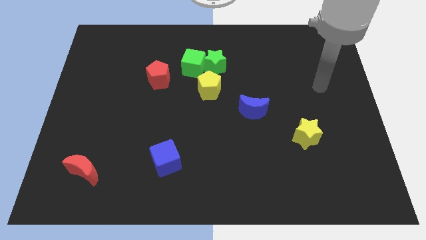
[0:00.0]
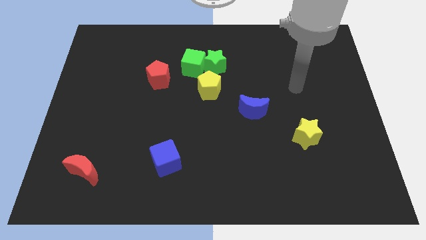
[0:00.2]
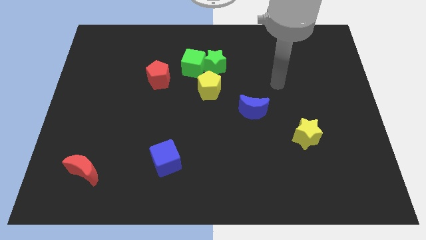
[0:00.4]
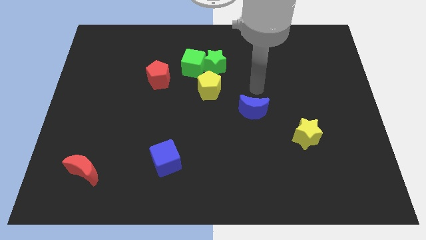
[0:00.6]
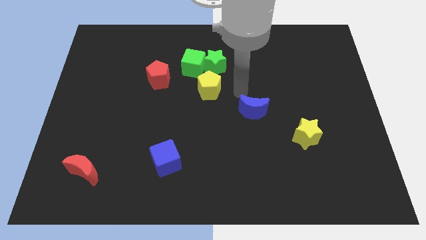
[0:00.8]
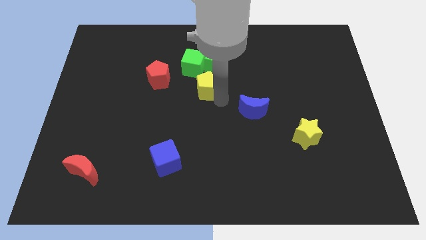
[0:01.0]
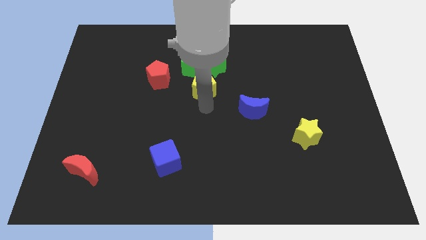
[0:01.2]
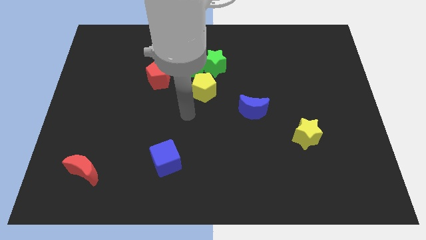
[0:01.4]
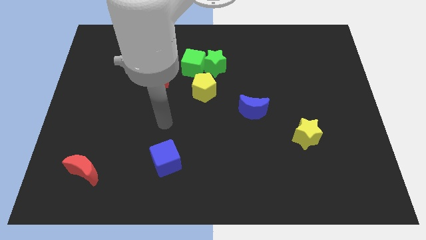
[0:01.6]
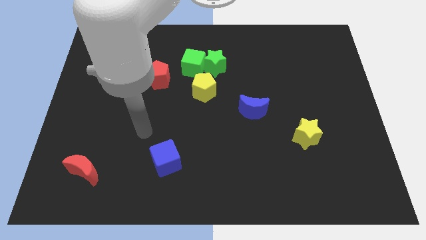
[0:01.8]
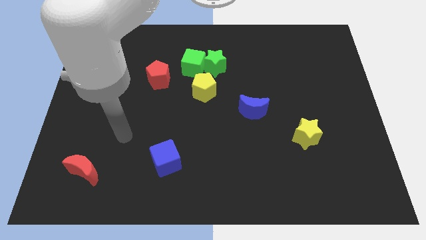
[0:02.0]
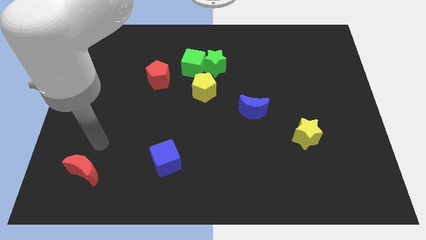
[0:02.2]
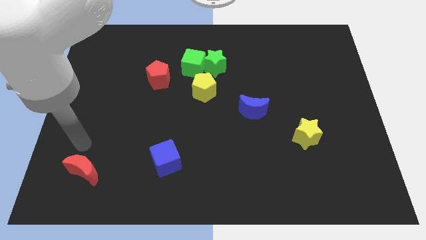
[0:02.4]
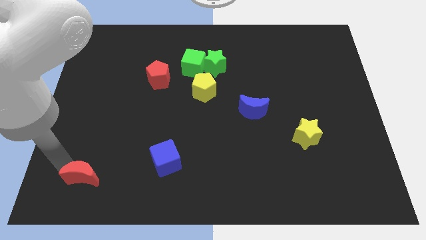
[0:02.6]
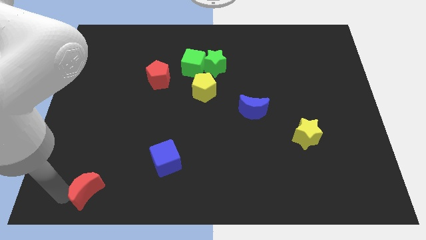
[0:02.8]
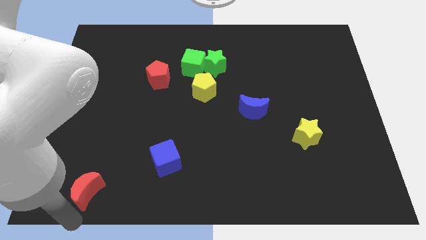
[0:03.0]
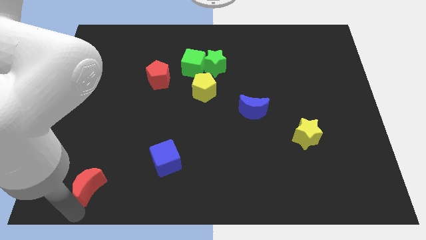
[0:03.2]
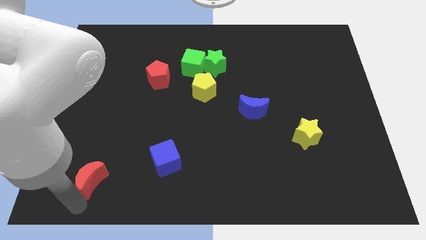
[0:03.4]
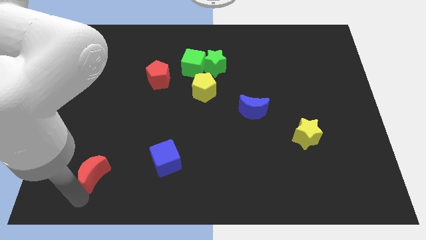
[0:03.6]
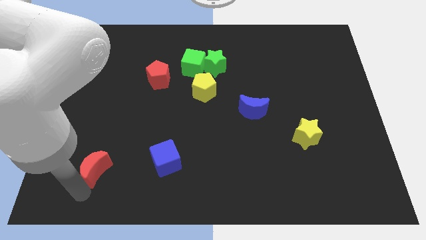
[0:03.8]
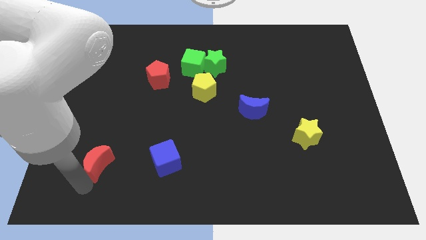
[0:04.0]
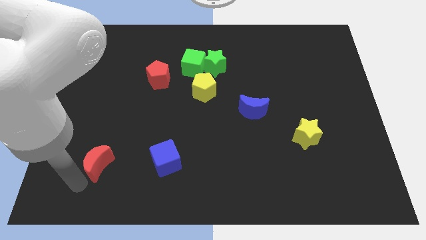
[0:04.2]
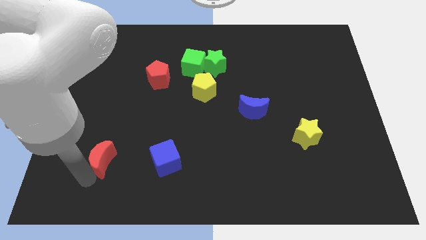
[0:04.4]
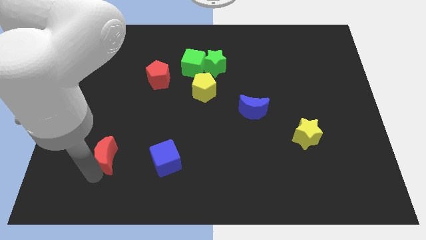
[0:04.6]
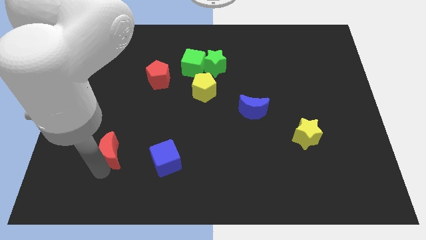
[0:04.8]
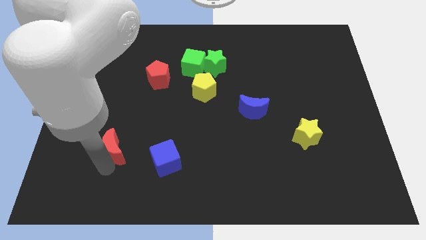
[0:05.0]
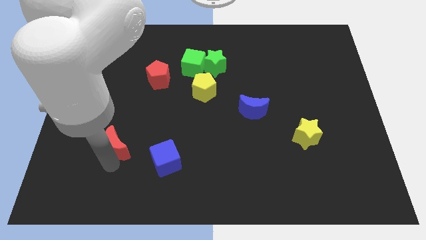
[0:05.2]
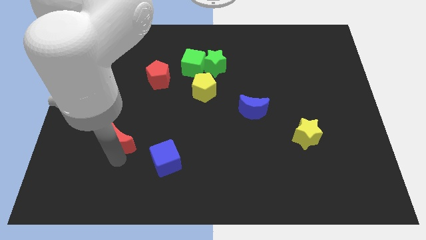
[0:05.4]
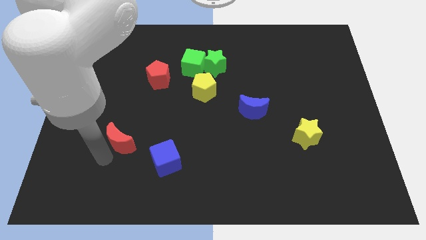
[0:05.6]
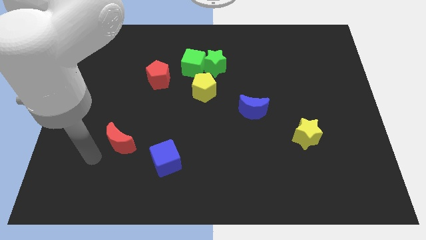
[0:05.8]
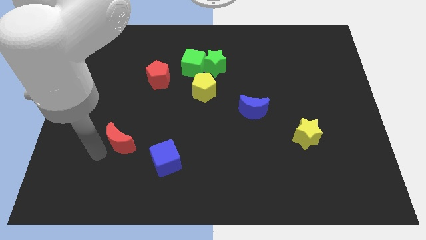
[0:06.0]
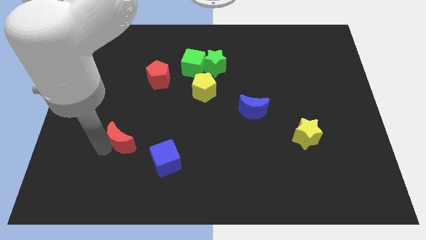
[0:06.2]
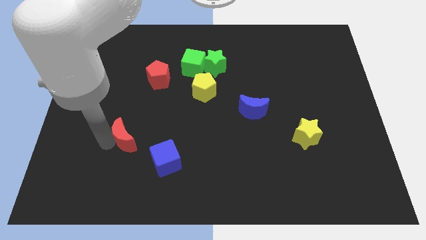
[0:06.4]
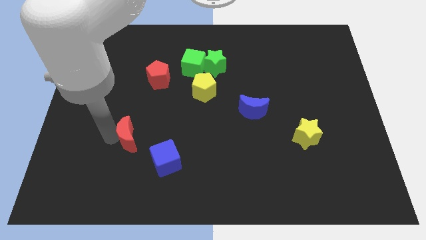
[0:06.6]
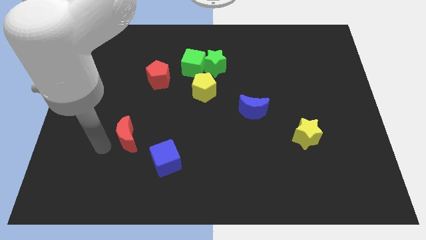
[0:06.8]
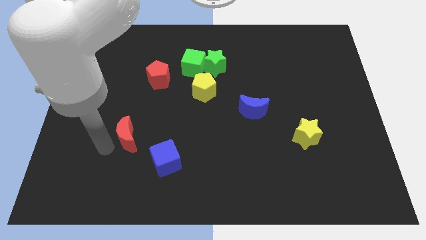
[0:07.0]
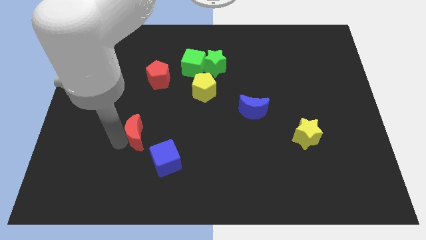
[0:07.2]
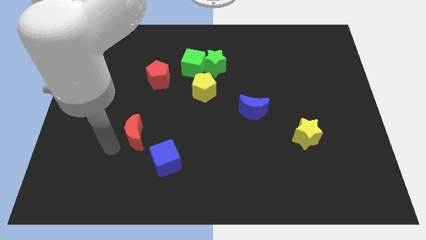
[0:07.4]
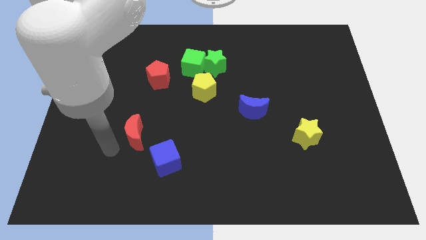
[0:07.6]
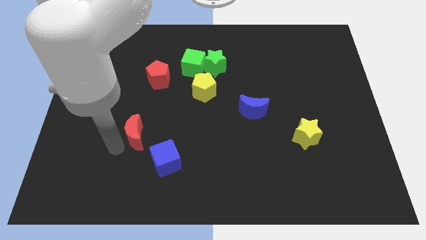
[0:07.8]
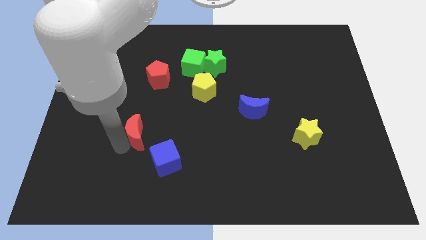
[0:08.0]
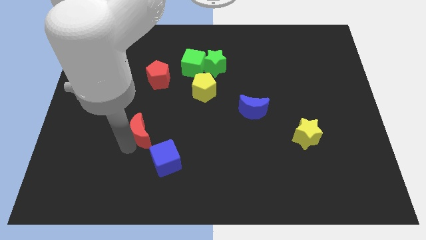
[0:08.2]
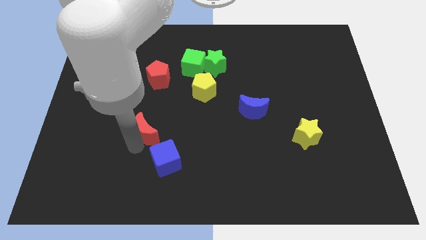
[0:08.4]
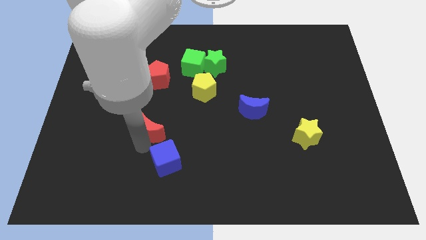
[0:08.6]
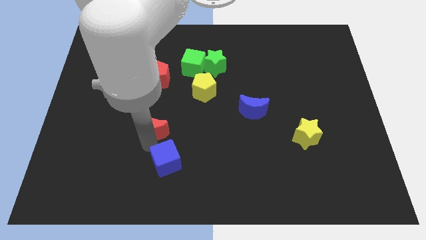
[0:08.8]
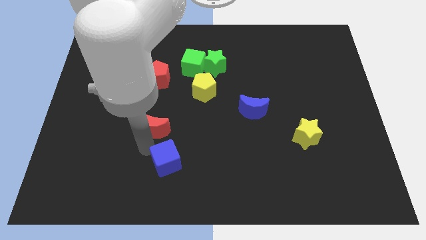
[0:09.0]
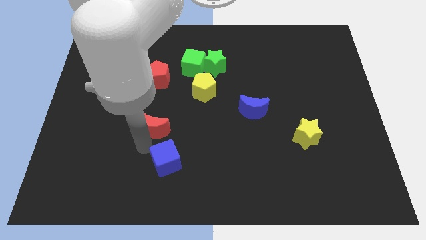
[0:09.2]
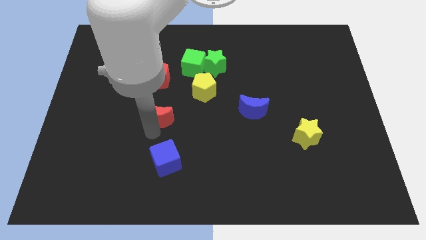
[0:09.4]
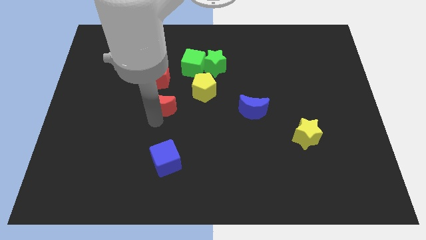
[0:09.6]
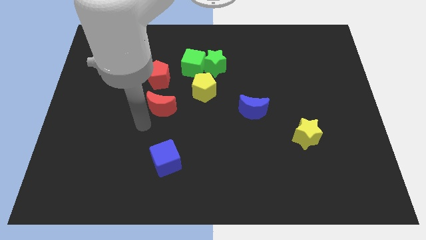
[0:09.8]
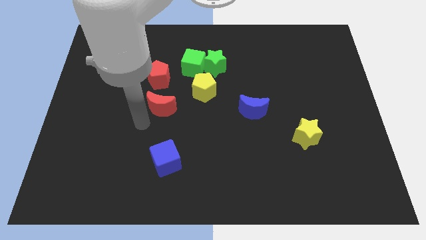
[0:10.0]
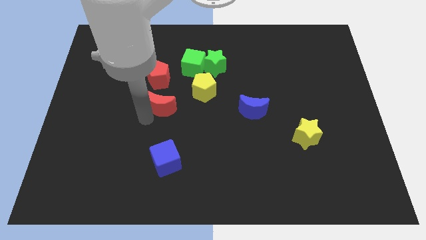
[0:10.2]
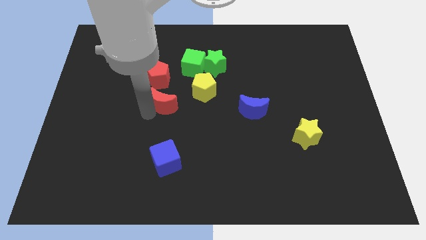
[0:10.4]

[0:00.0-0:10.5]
move the red moon to the bottom right side of the red pentagon

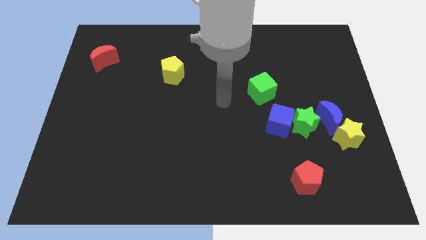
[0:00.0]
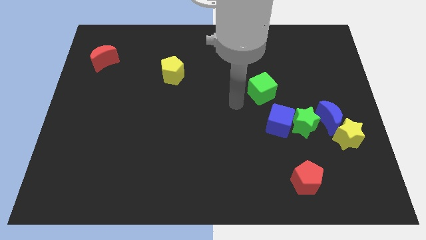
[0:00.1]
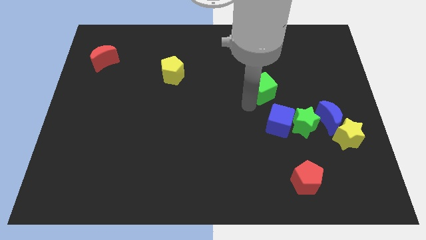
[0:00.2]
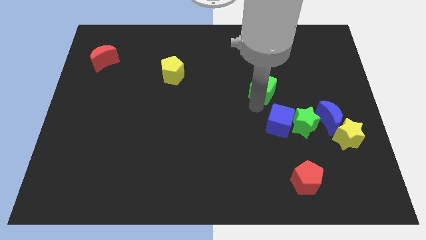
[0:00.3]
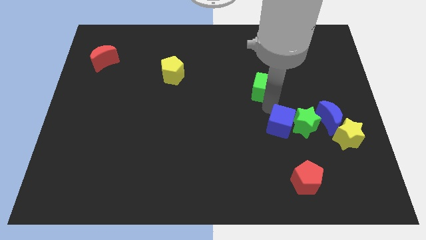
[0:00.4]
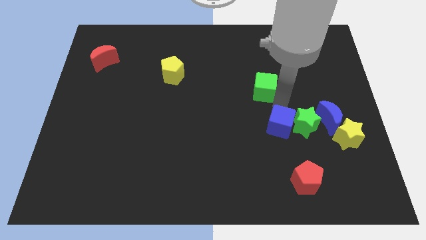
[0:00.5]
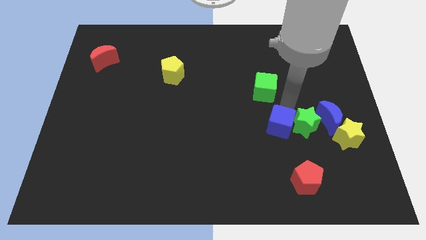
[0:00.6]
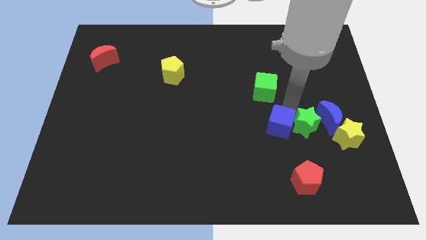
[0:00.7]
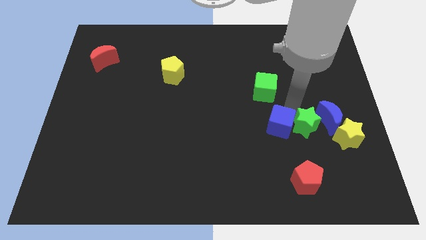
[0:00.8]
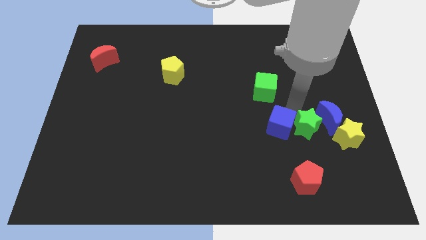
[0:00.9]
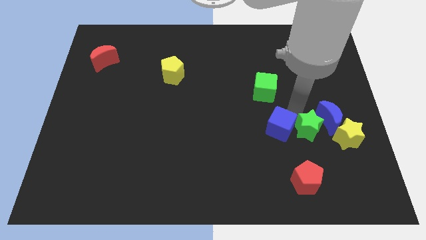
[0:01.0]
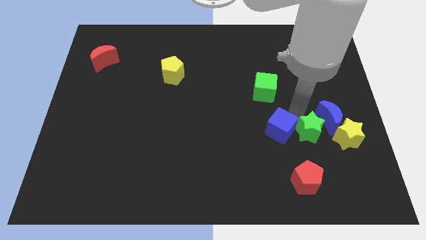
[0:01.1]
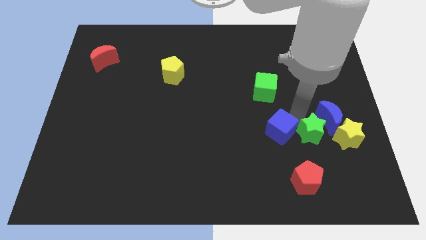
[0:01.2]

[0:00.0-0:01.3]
put the green star below the blue moon

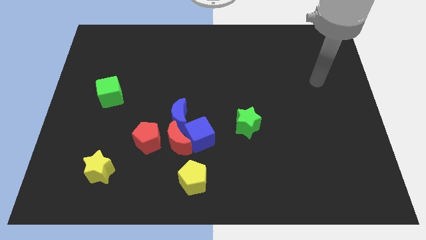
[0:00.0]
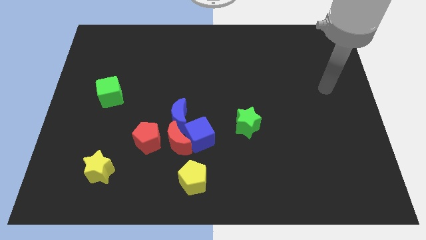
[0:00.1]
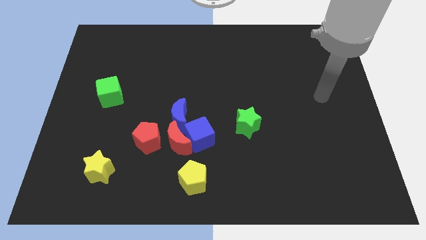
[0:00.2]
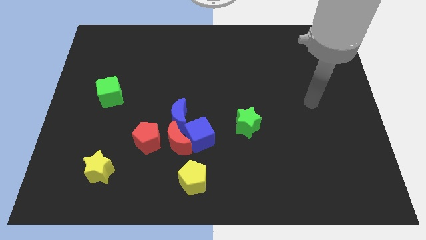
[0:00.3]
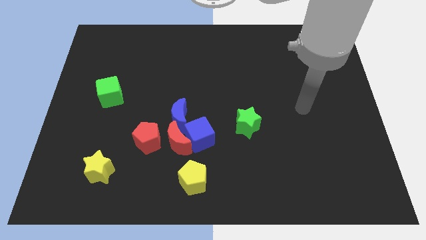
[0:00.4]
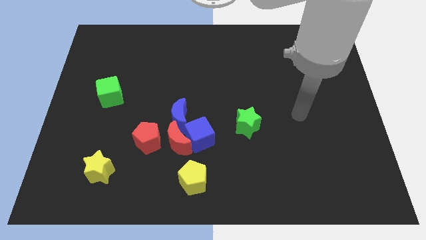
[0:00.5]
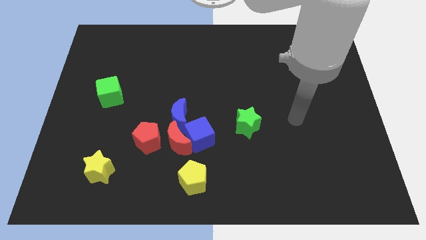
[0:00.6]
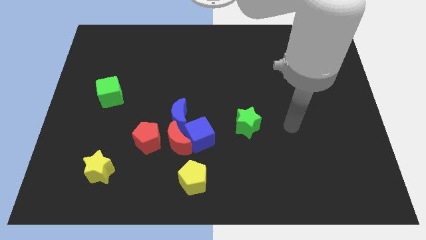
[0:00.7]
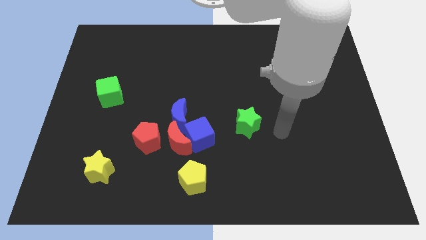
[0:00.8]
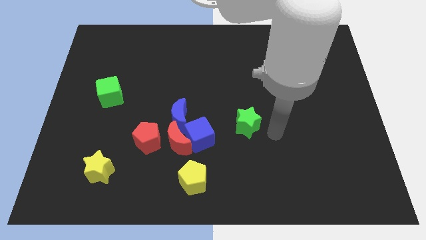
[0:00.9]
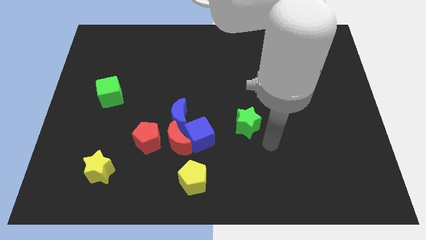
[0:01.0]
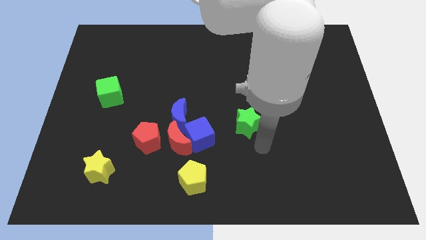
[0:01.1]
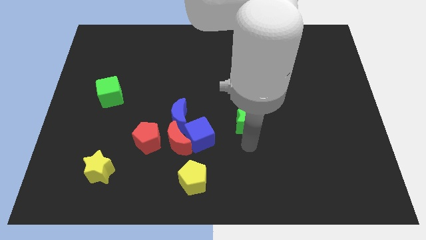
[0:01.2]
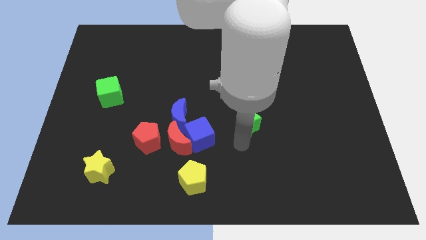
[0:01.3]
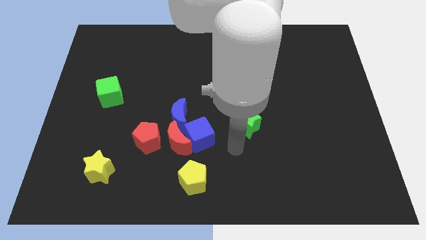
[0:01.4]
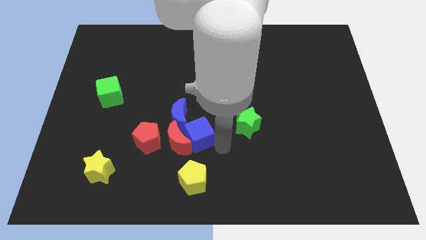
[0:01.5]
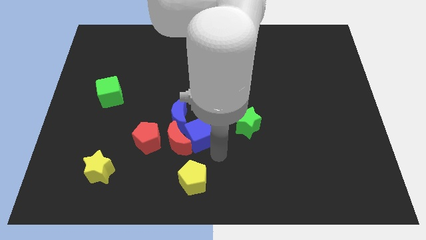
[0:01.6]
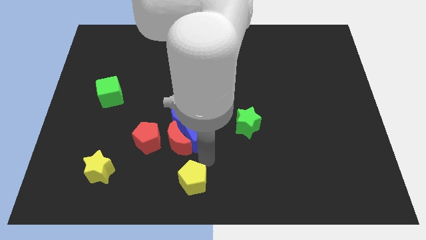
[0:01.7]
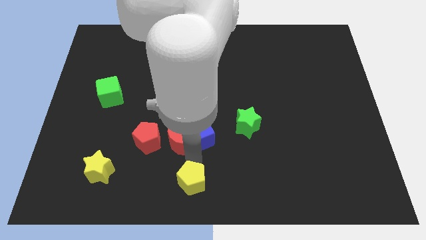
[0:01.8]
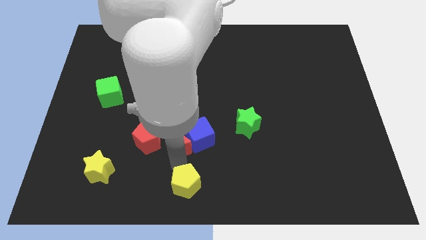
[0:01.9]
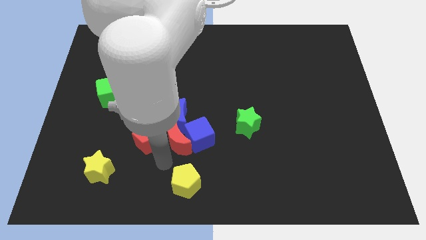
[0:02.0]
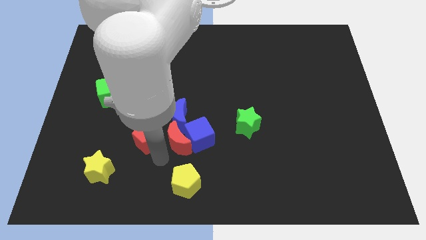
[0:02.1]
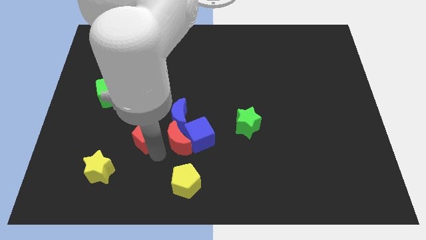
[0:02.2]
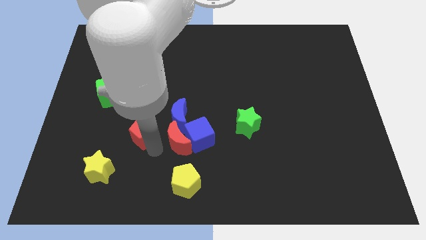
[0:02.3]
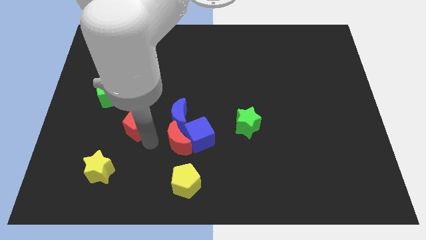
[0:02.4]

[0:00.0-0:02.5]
slide the red pentagon diagonally down and to the right of the green cube
